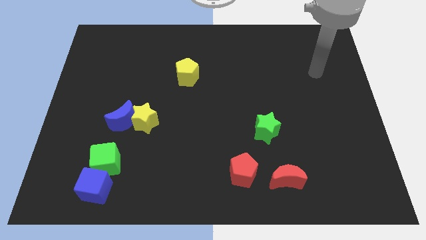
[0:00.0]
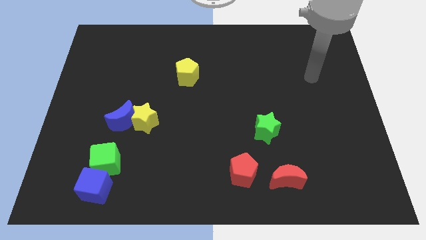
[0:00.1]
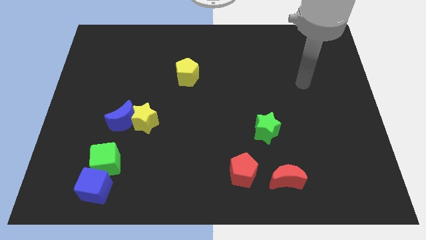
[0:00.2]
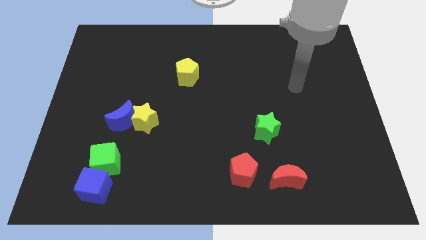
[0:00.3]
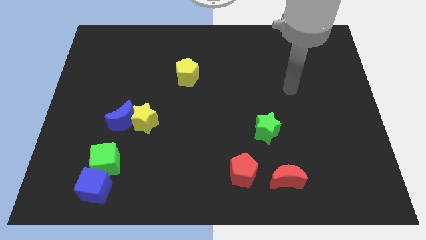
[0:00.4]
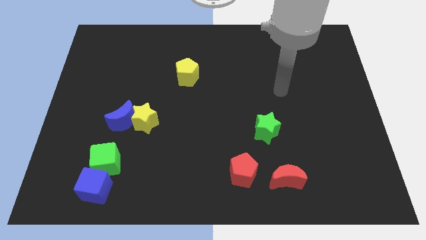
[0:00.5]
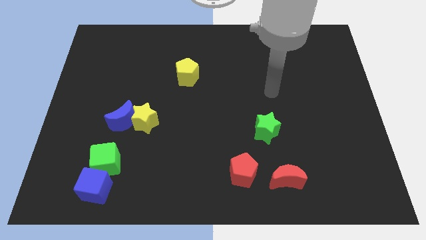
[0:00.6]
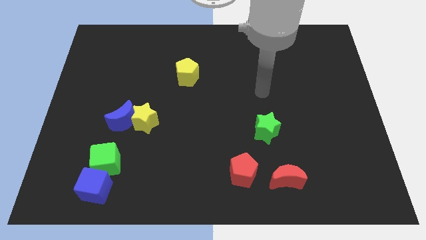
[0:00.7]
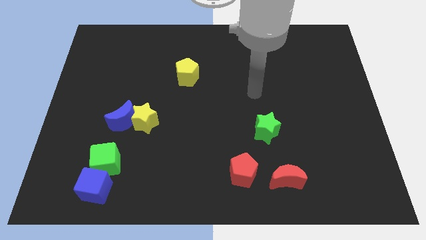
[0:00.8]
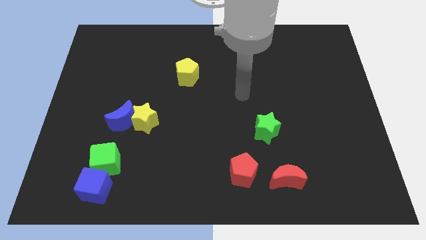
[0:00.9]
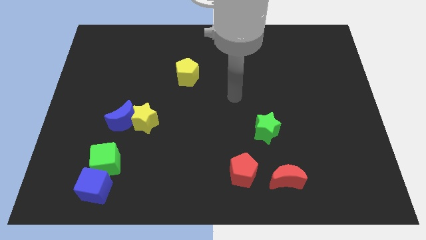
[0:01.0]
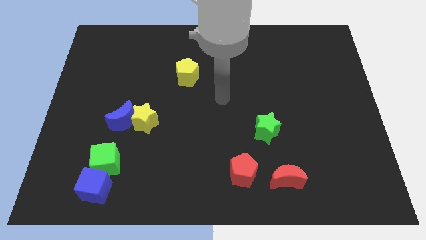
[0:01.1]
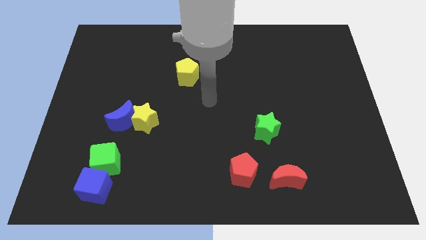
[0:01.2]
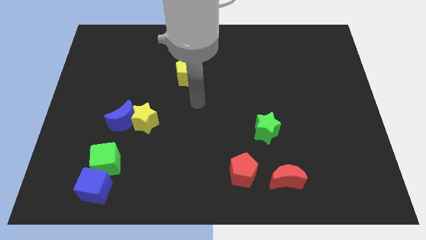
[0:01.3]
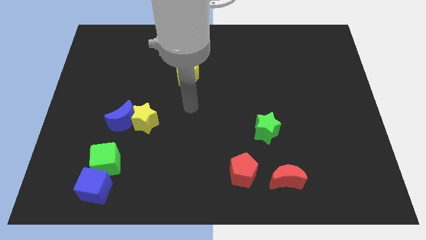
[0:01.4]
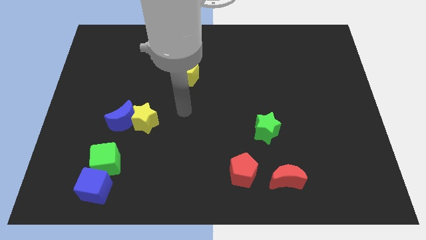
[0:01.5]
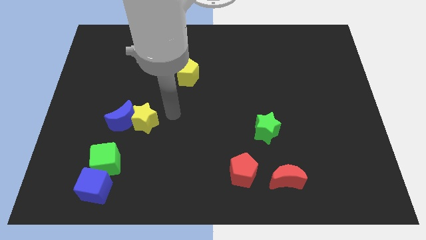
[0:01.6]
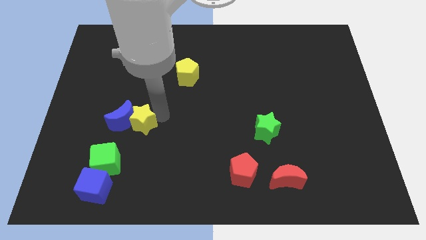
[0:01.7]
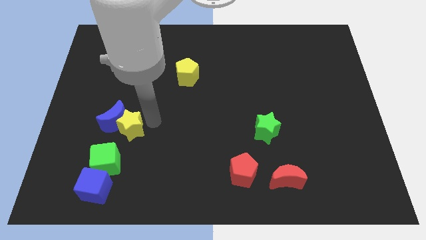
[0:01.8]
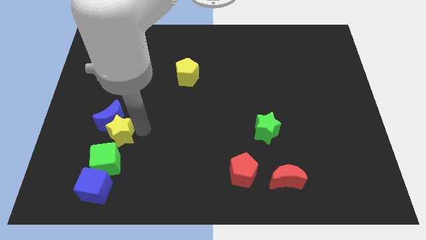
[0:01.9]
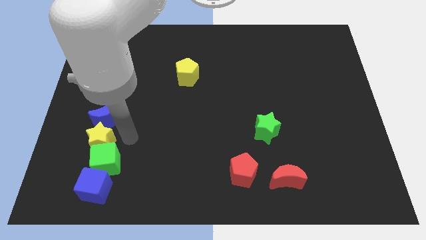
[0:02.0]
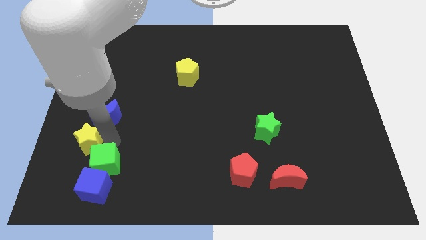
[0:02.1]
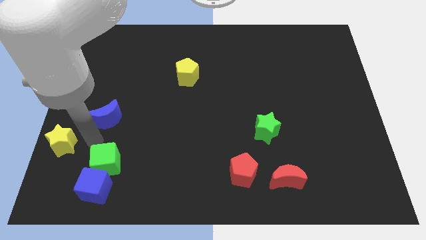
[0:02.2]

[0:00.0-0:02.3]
separate the blue moon from the yellow star

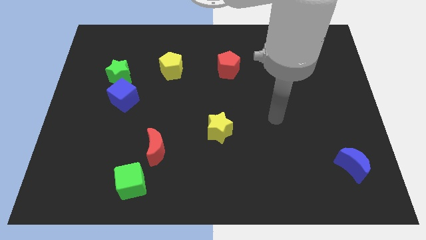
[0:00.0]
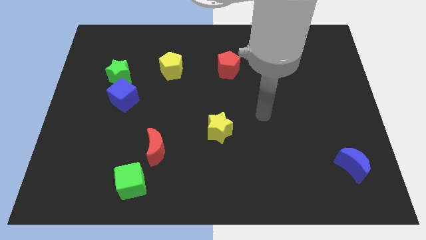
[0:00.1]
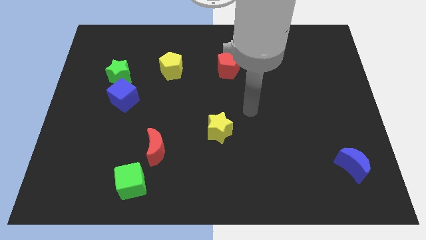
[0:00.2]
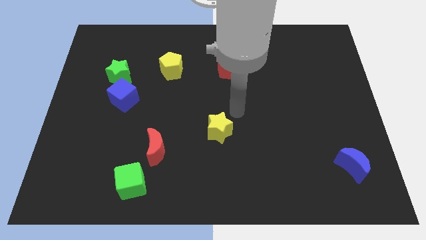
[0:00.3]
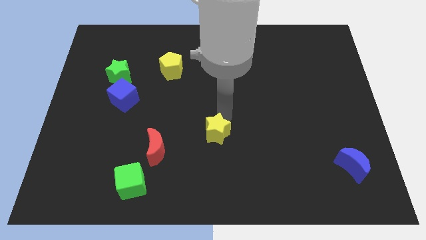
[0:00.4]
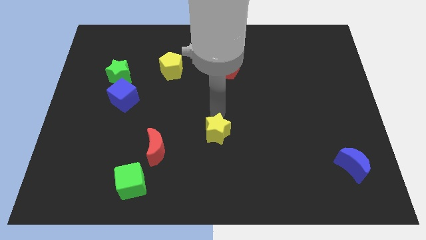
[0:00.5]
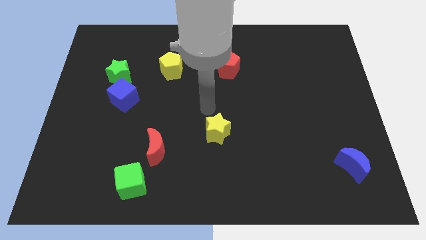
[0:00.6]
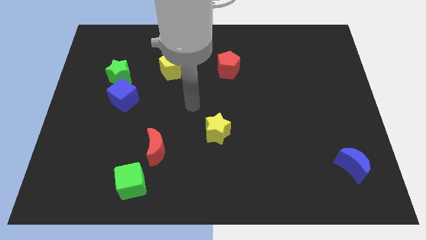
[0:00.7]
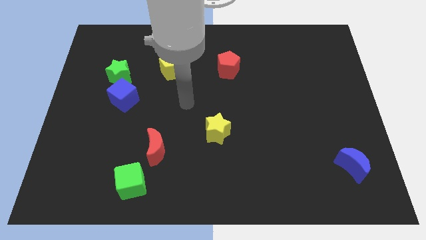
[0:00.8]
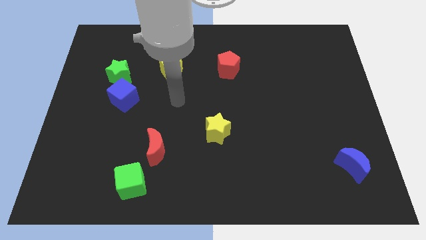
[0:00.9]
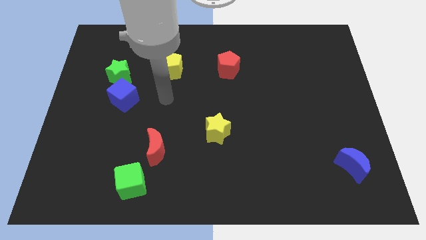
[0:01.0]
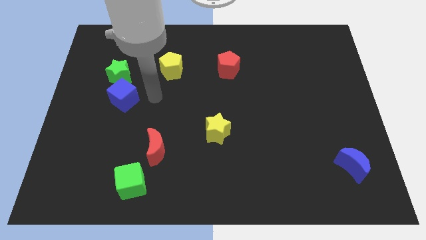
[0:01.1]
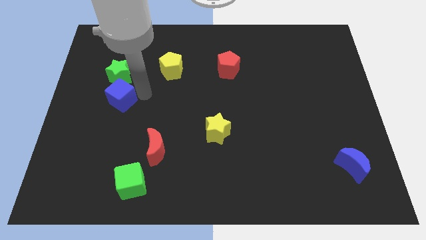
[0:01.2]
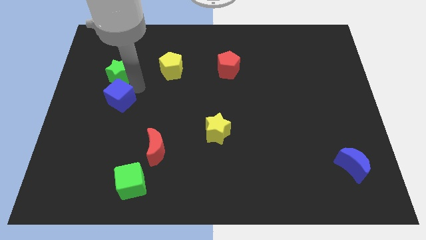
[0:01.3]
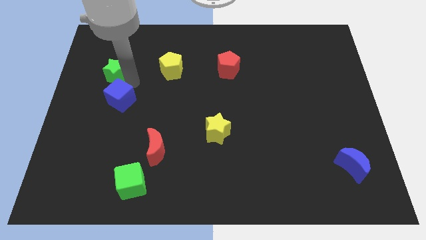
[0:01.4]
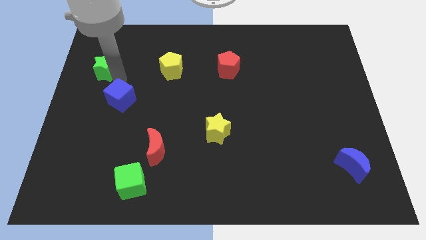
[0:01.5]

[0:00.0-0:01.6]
pull the blue cube apart from the green star

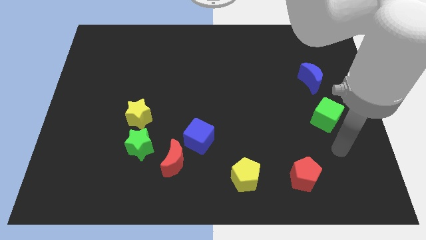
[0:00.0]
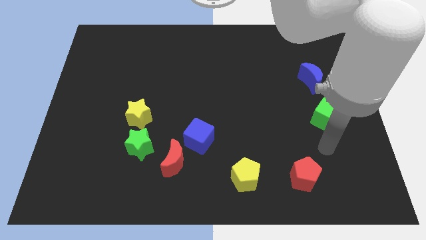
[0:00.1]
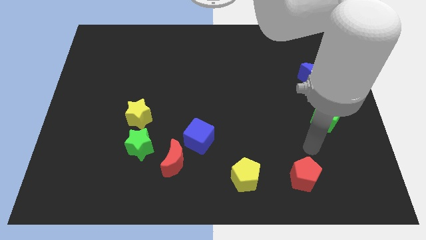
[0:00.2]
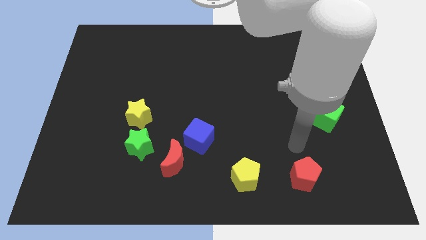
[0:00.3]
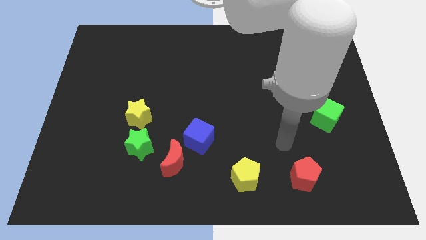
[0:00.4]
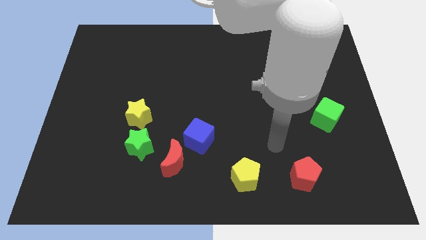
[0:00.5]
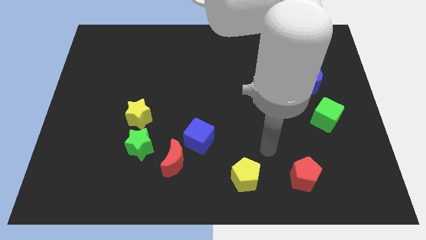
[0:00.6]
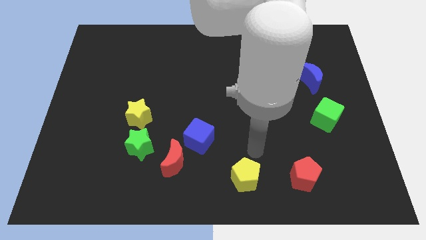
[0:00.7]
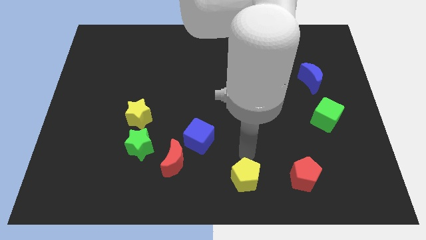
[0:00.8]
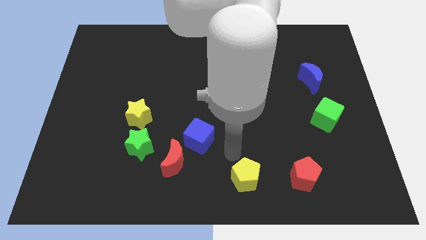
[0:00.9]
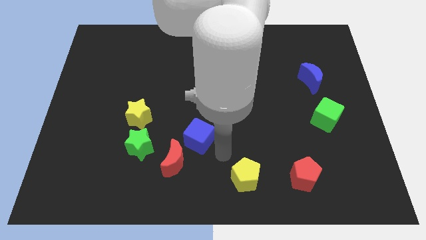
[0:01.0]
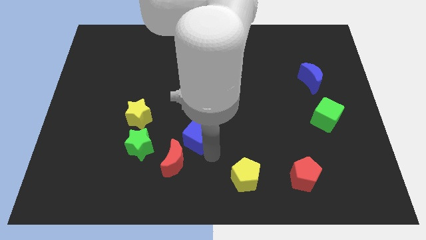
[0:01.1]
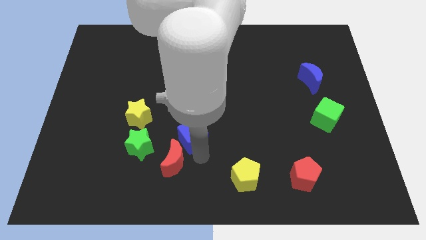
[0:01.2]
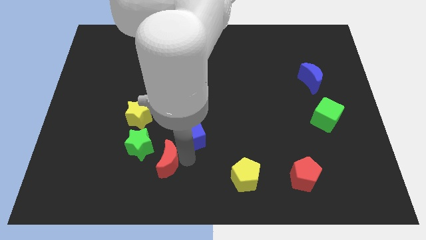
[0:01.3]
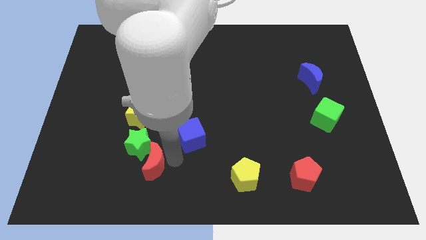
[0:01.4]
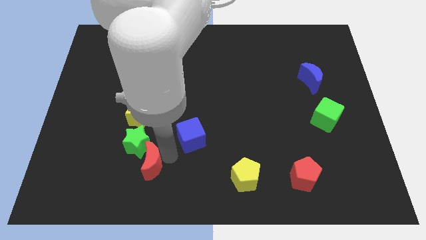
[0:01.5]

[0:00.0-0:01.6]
move the blue cube away from the red moon

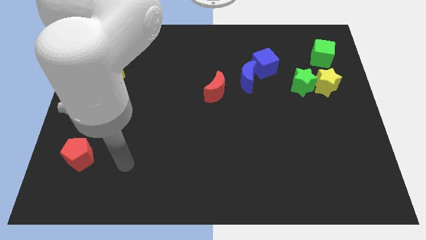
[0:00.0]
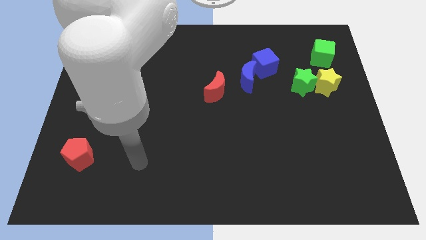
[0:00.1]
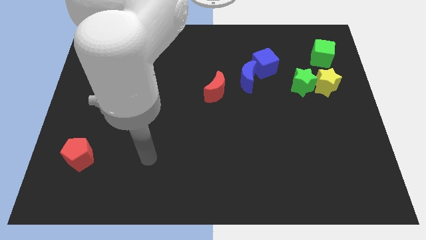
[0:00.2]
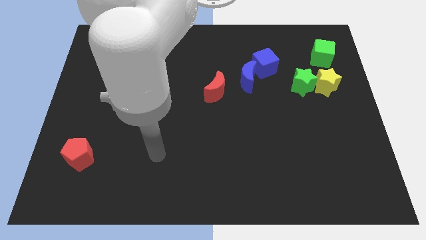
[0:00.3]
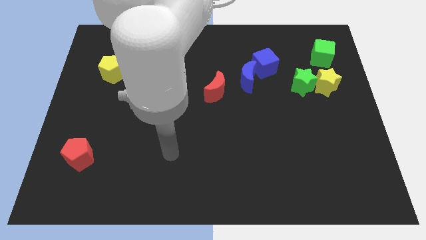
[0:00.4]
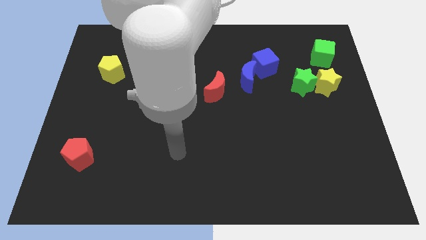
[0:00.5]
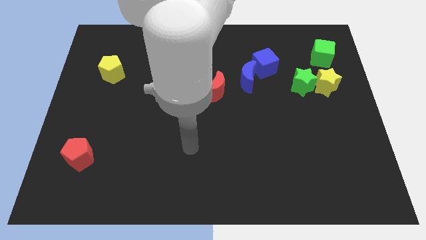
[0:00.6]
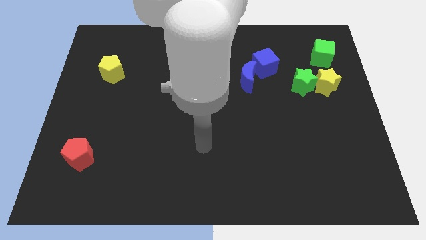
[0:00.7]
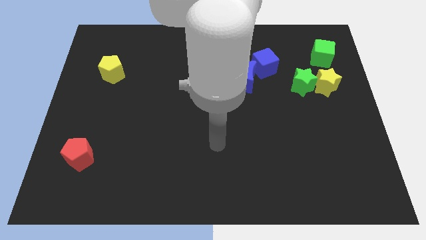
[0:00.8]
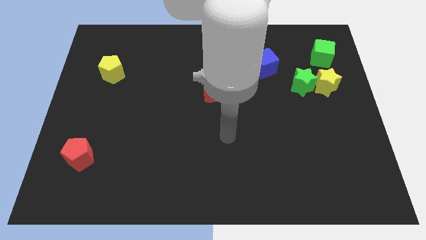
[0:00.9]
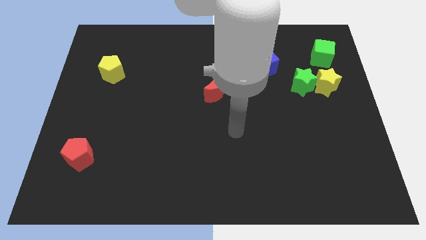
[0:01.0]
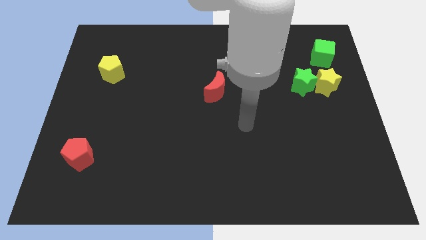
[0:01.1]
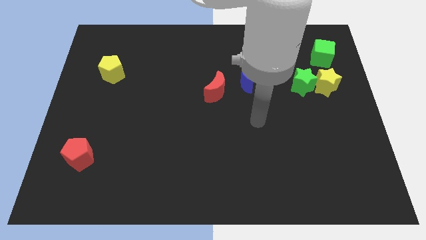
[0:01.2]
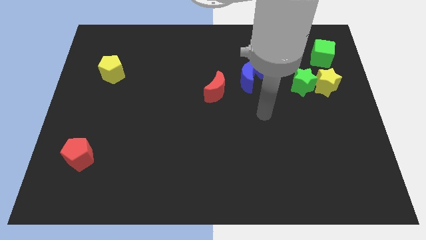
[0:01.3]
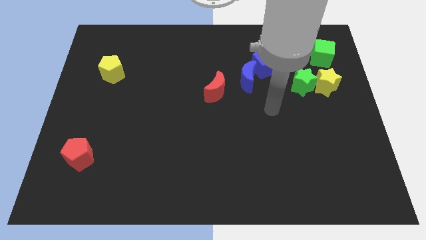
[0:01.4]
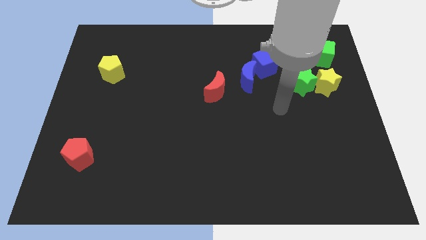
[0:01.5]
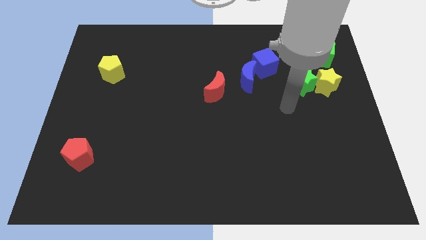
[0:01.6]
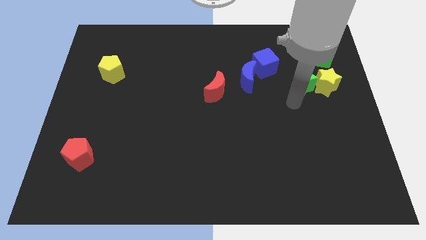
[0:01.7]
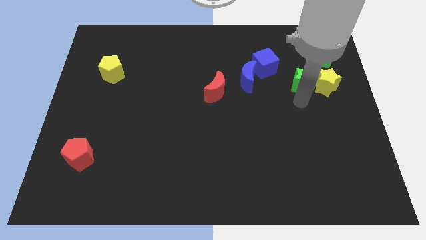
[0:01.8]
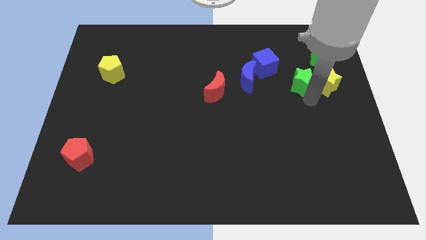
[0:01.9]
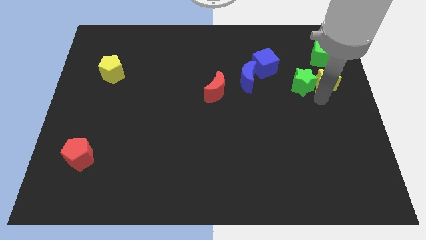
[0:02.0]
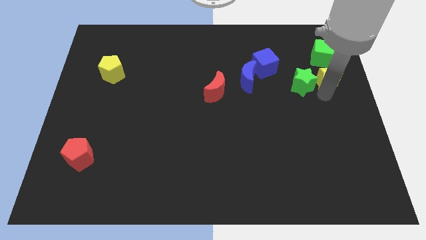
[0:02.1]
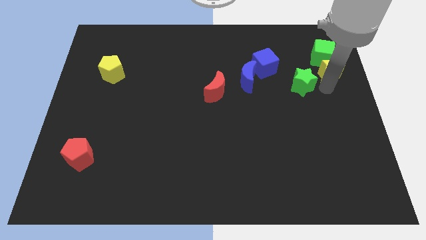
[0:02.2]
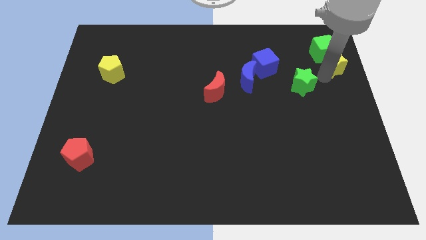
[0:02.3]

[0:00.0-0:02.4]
separate the green star from the yellow star

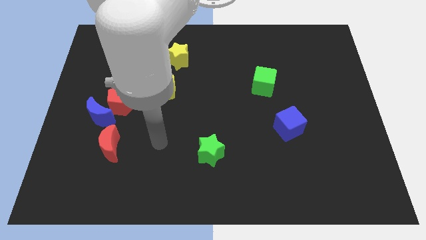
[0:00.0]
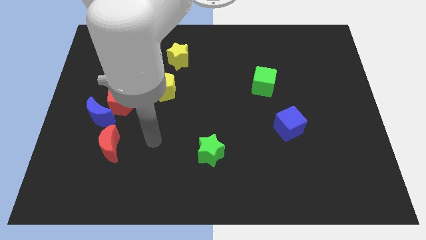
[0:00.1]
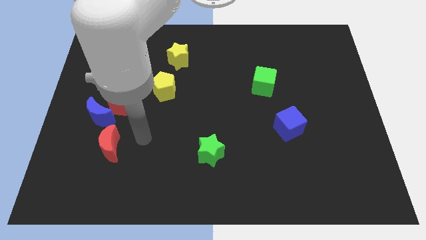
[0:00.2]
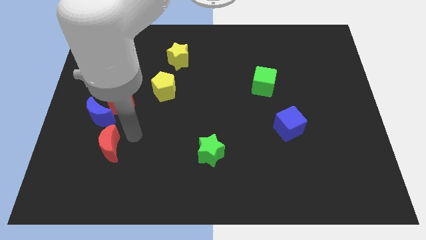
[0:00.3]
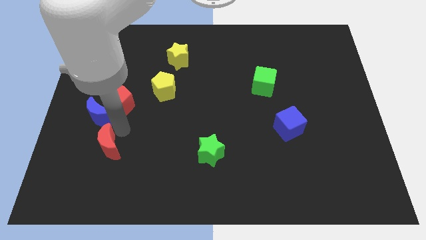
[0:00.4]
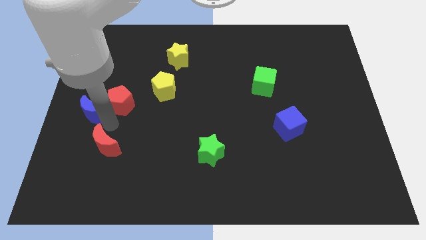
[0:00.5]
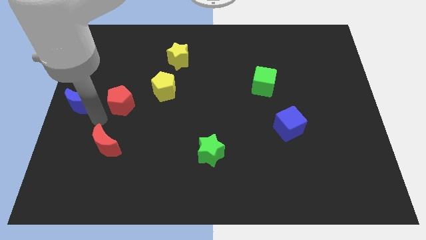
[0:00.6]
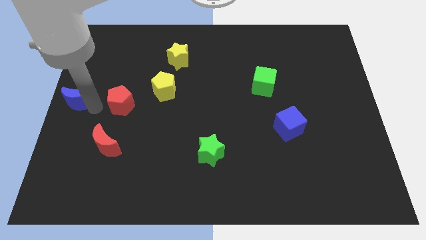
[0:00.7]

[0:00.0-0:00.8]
separate the red pentagon from the blue moon

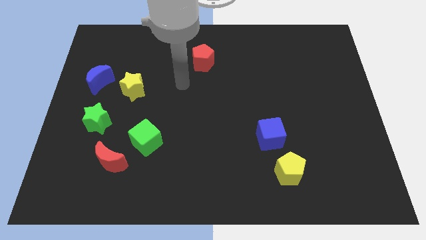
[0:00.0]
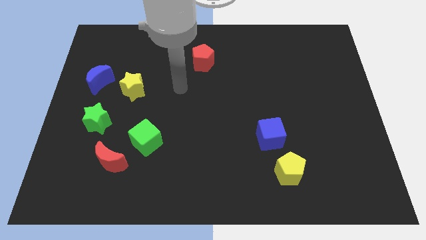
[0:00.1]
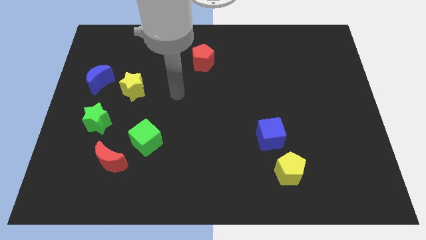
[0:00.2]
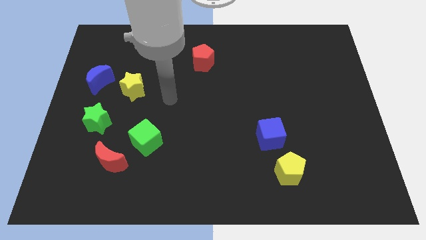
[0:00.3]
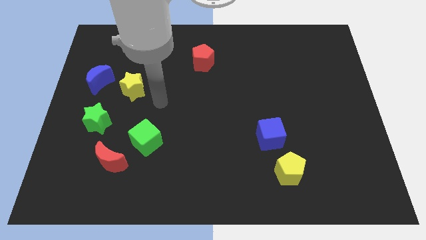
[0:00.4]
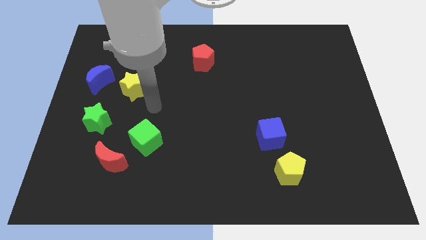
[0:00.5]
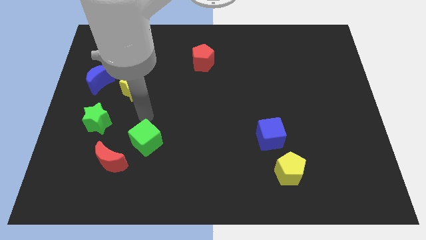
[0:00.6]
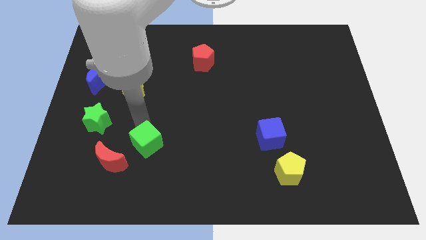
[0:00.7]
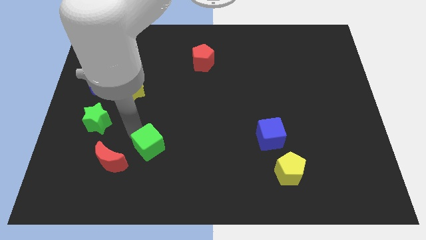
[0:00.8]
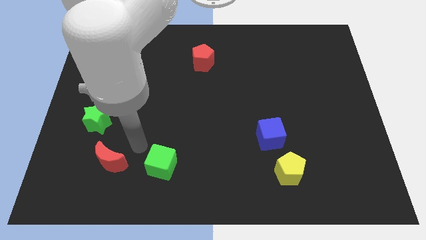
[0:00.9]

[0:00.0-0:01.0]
pull the red moon apart from the green cube
